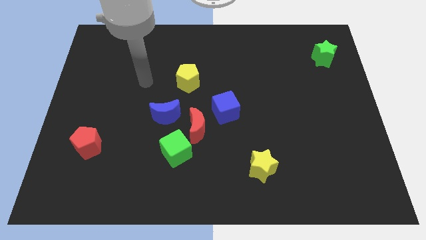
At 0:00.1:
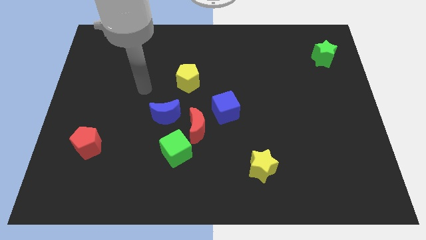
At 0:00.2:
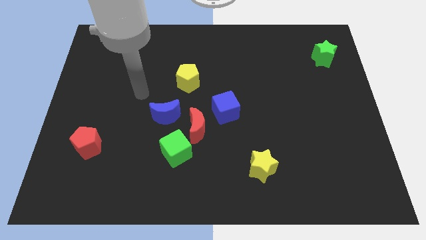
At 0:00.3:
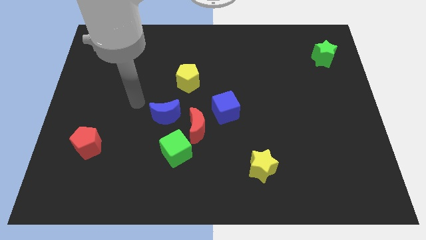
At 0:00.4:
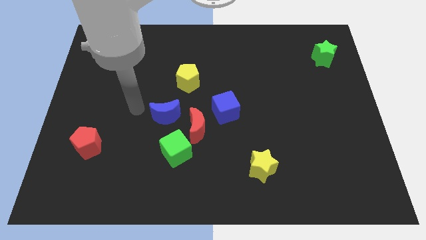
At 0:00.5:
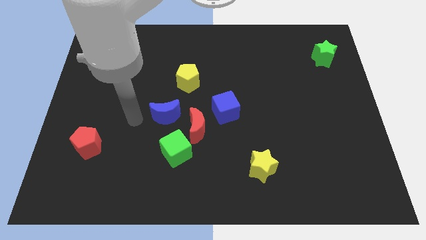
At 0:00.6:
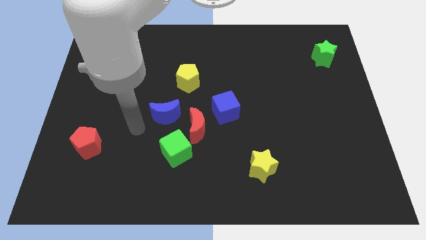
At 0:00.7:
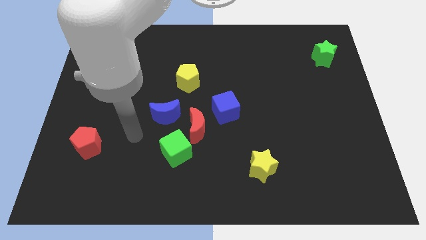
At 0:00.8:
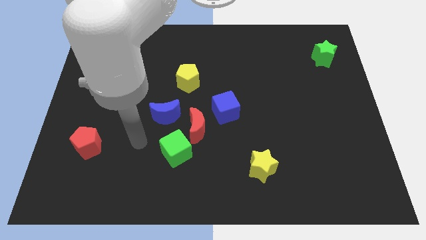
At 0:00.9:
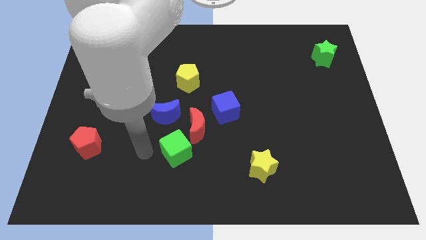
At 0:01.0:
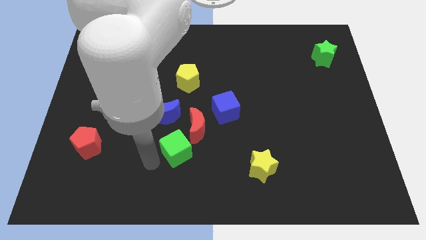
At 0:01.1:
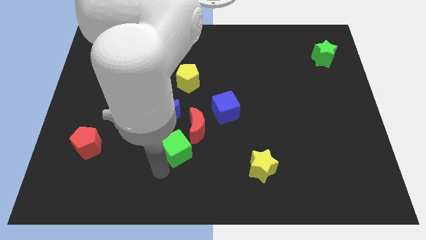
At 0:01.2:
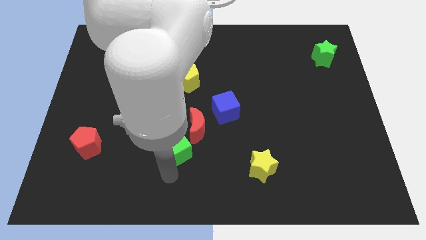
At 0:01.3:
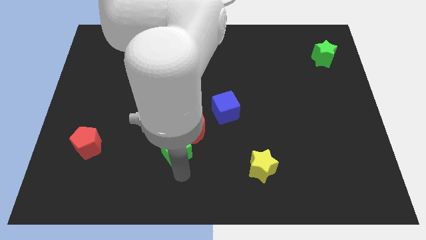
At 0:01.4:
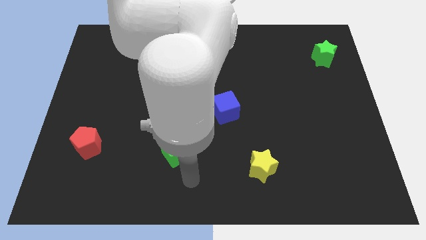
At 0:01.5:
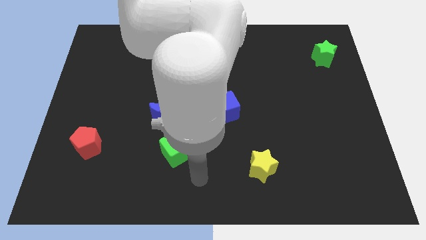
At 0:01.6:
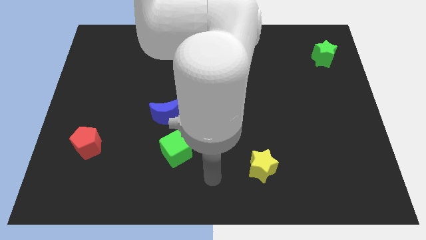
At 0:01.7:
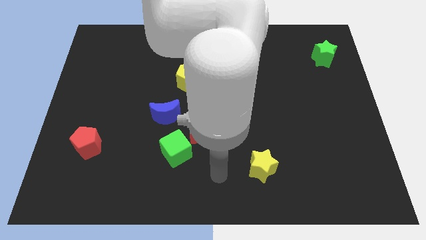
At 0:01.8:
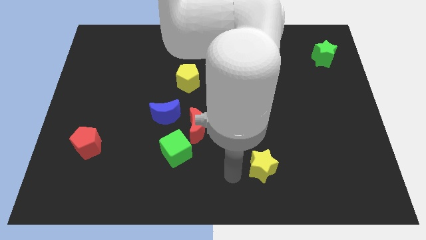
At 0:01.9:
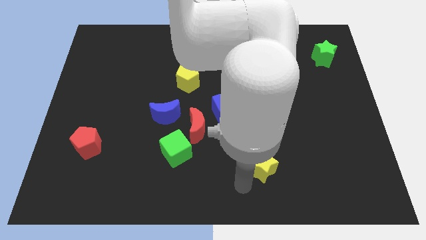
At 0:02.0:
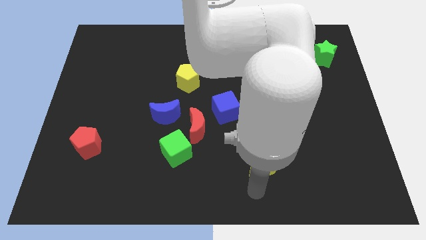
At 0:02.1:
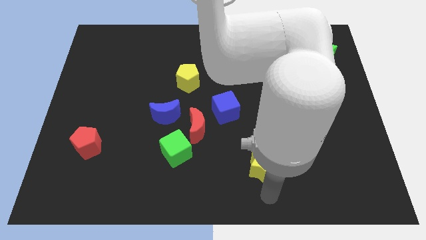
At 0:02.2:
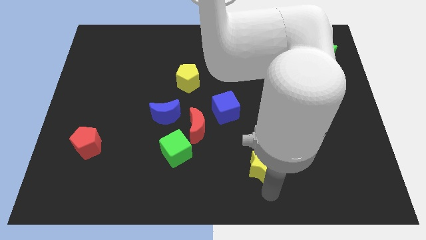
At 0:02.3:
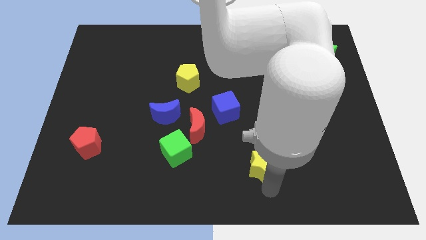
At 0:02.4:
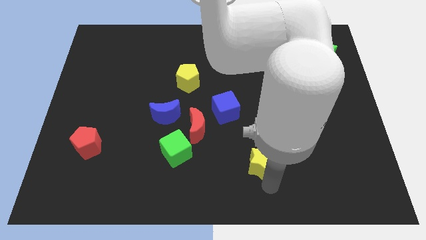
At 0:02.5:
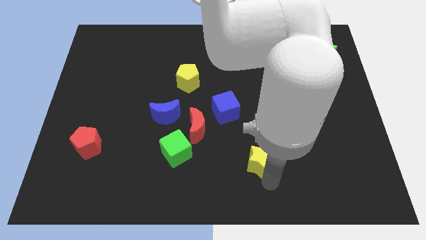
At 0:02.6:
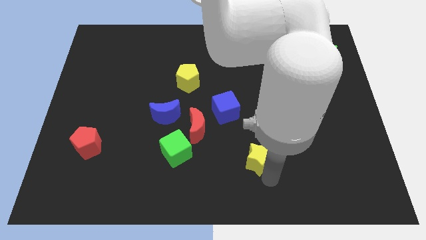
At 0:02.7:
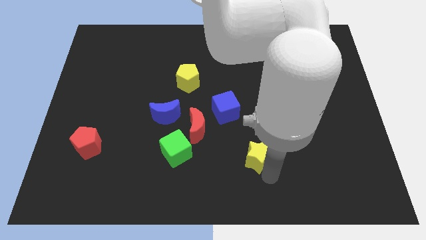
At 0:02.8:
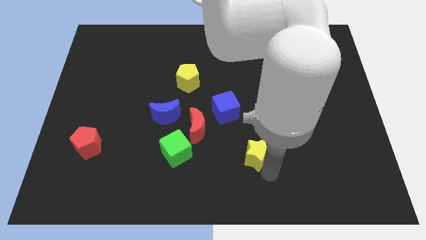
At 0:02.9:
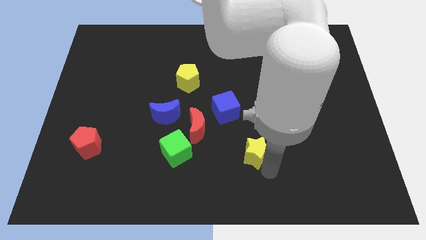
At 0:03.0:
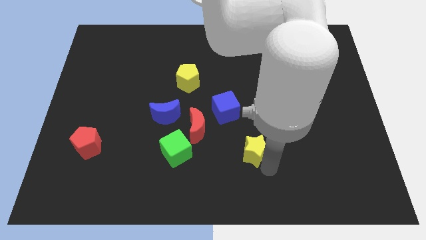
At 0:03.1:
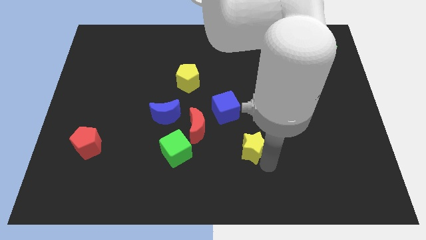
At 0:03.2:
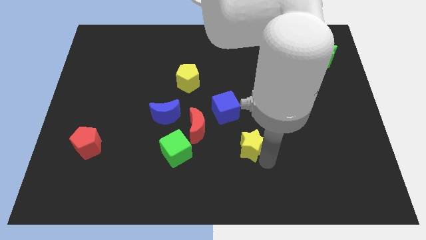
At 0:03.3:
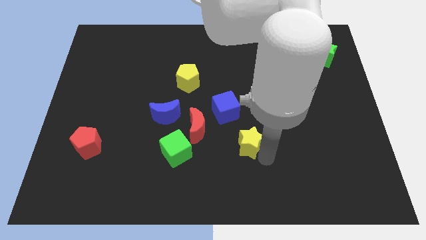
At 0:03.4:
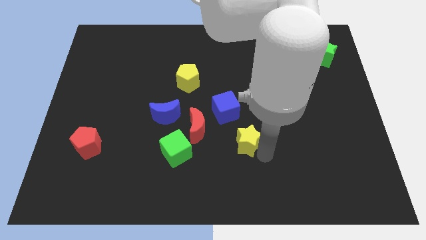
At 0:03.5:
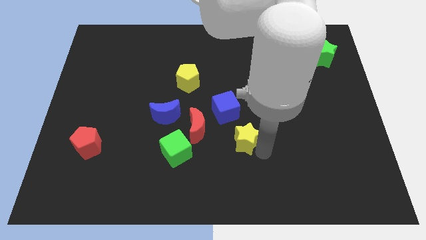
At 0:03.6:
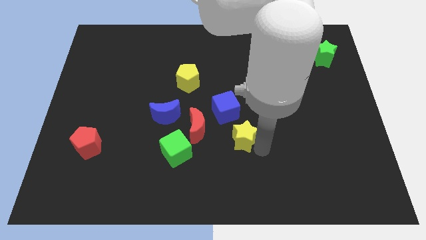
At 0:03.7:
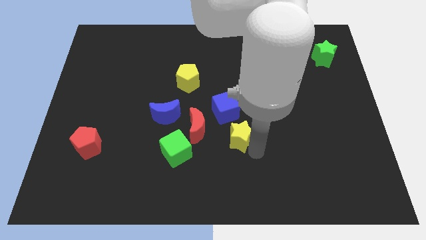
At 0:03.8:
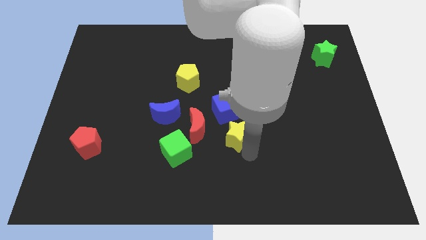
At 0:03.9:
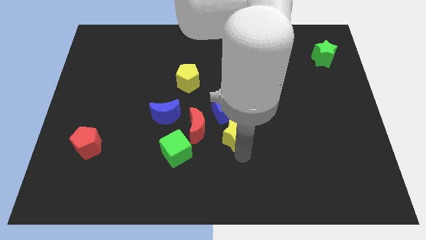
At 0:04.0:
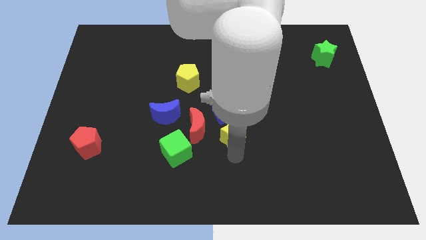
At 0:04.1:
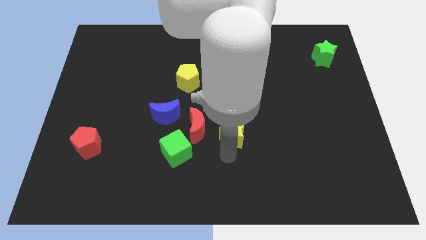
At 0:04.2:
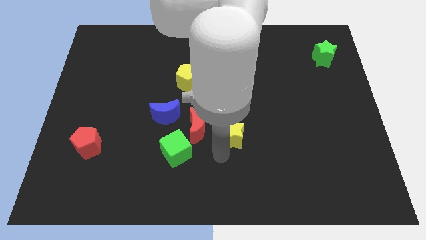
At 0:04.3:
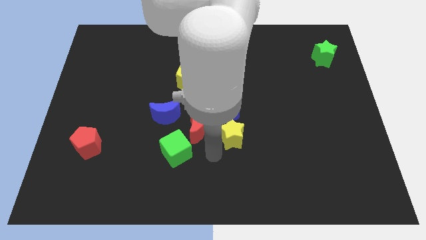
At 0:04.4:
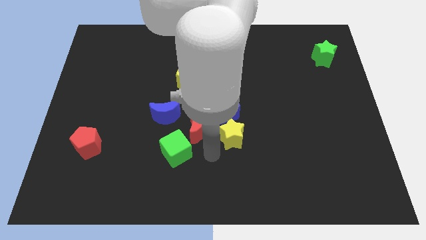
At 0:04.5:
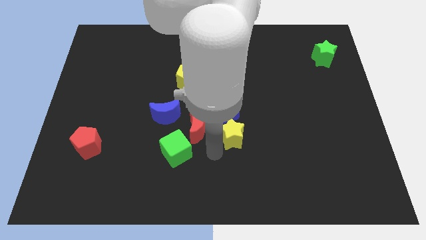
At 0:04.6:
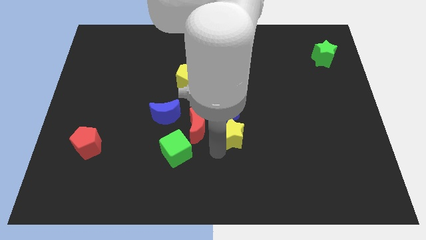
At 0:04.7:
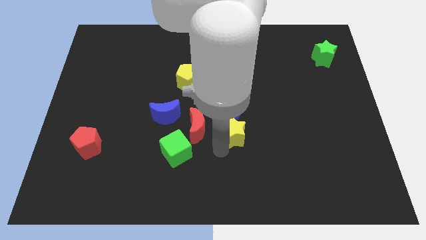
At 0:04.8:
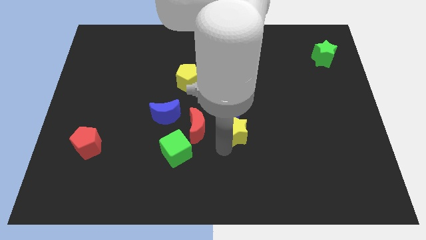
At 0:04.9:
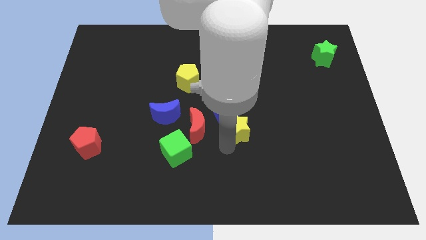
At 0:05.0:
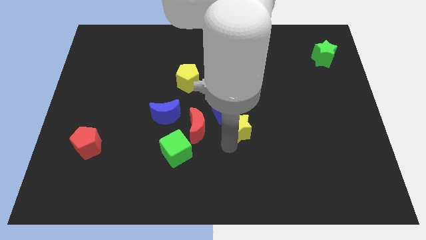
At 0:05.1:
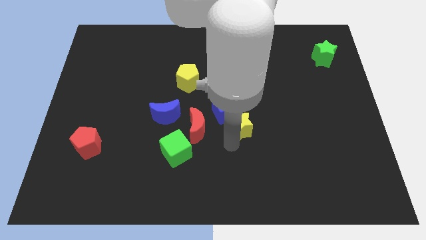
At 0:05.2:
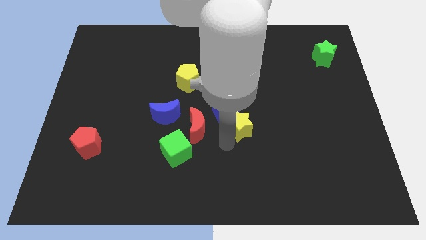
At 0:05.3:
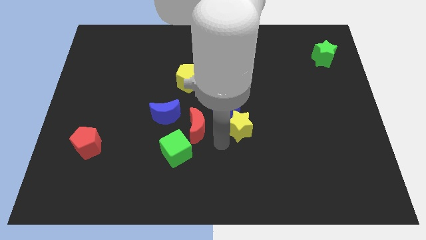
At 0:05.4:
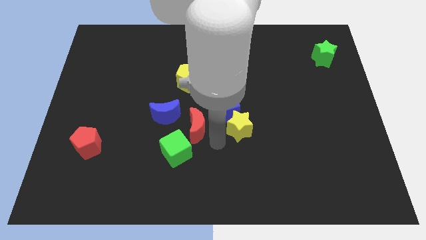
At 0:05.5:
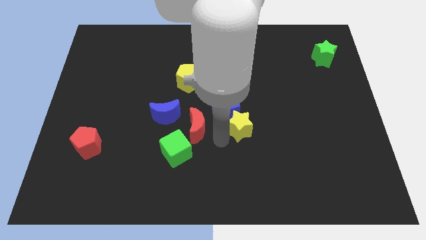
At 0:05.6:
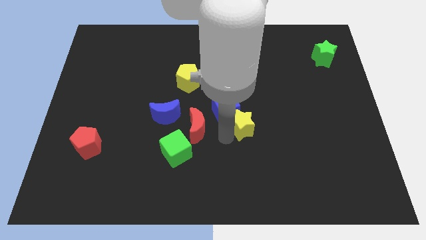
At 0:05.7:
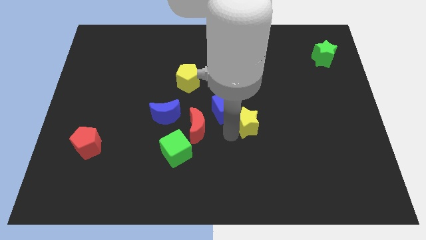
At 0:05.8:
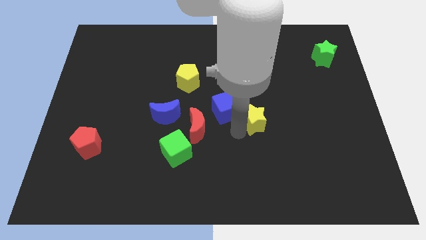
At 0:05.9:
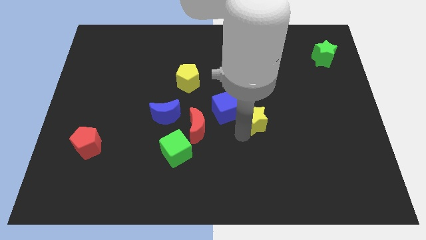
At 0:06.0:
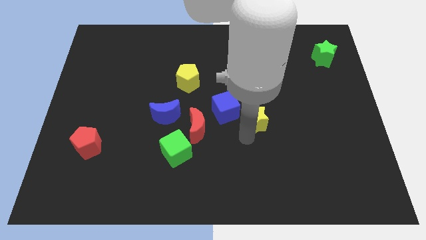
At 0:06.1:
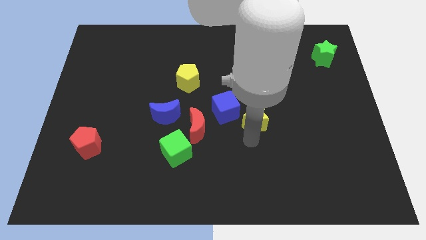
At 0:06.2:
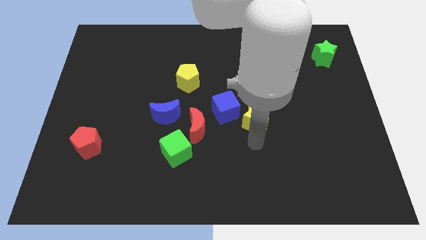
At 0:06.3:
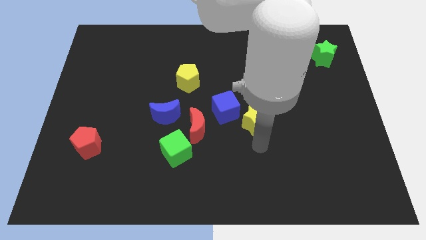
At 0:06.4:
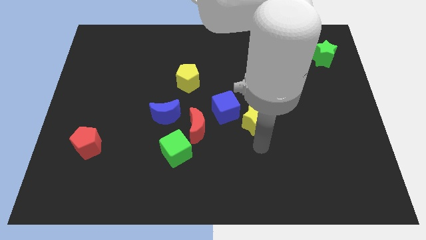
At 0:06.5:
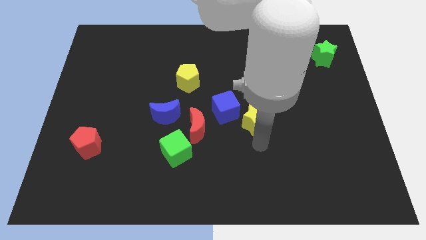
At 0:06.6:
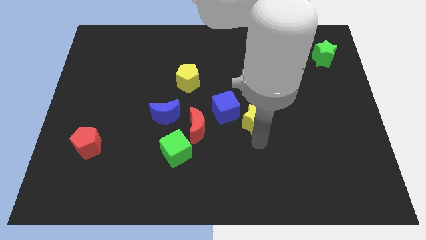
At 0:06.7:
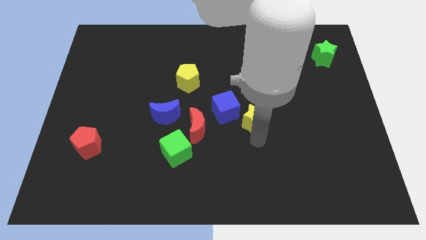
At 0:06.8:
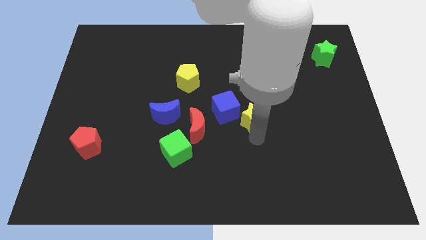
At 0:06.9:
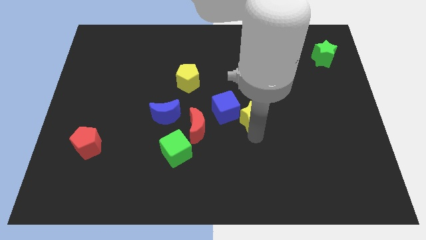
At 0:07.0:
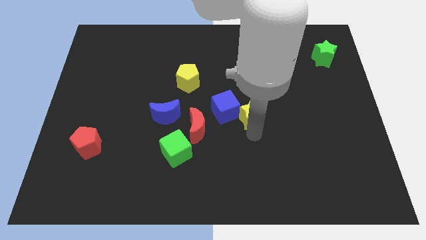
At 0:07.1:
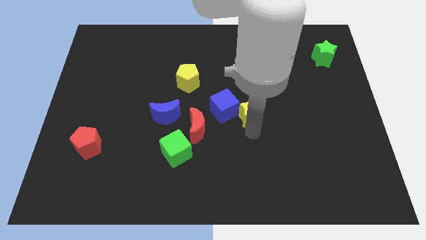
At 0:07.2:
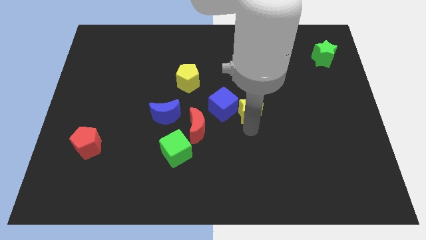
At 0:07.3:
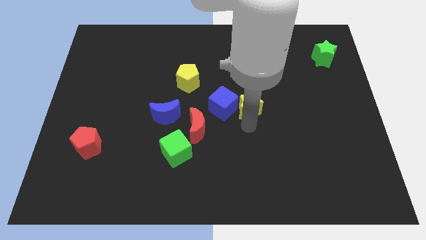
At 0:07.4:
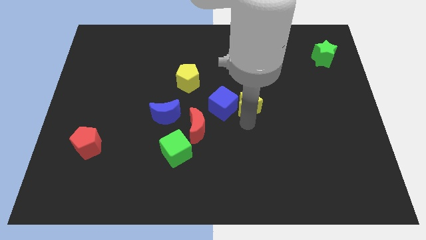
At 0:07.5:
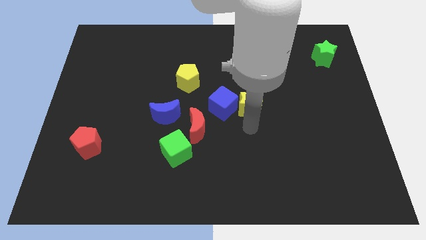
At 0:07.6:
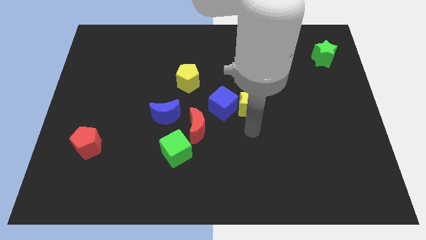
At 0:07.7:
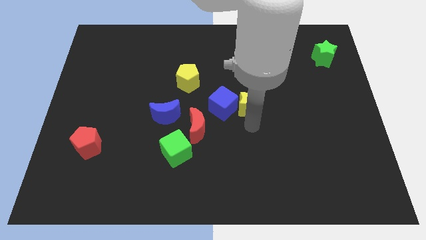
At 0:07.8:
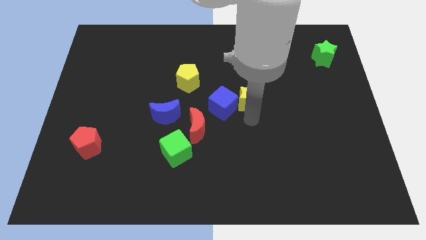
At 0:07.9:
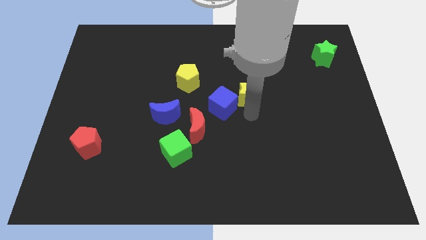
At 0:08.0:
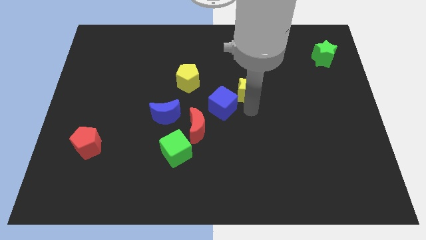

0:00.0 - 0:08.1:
slide the yellow star up
